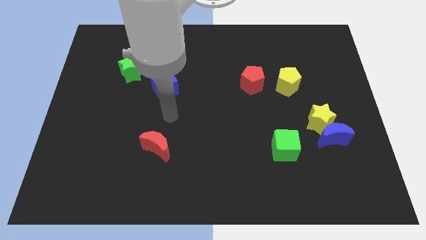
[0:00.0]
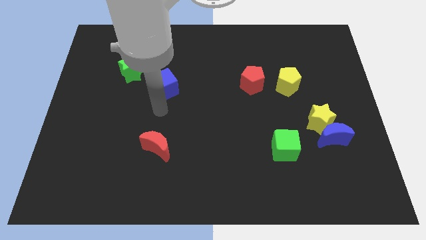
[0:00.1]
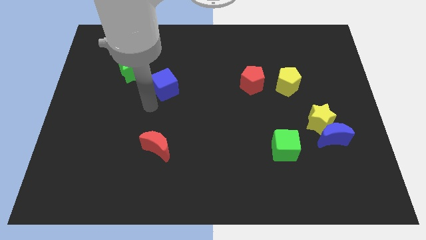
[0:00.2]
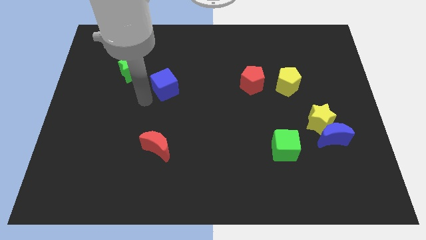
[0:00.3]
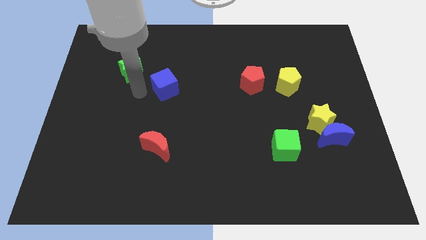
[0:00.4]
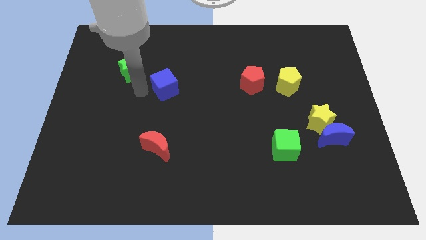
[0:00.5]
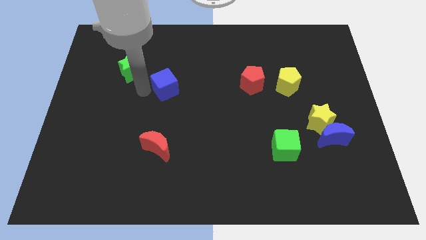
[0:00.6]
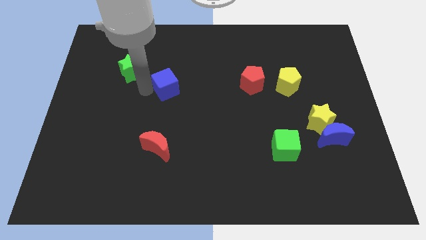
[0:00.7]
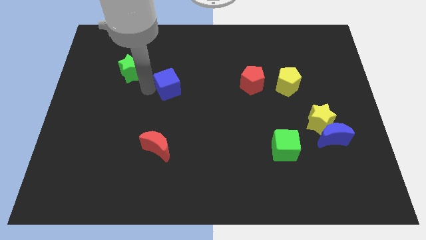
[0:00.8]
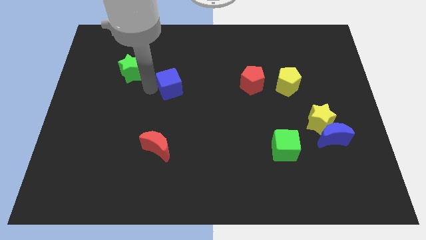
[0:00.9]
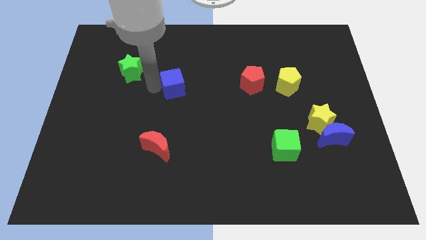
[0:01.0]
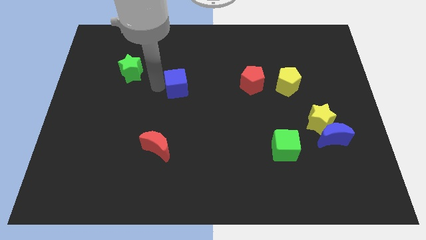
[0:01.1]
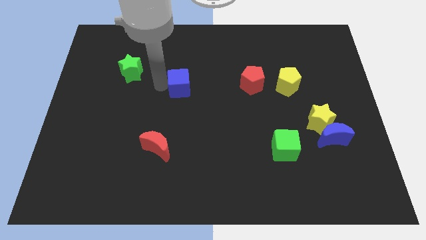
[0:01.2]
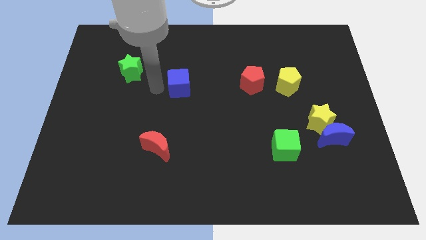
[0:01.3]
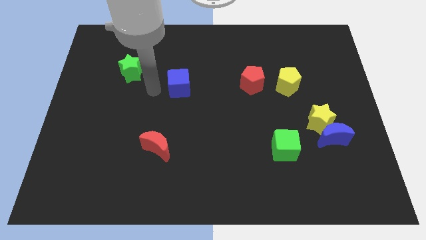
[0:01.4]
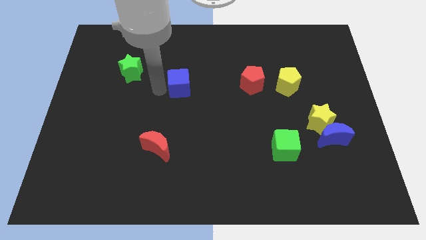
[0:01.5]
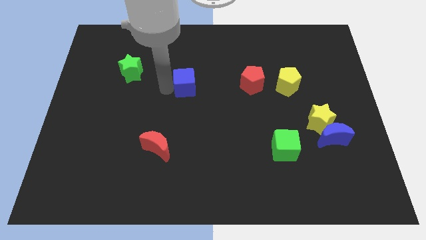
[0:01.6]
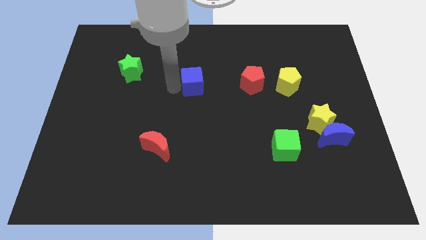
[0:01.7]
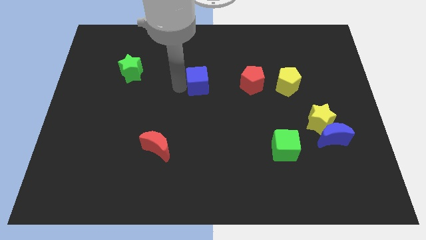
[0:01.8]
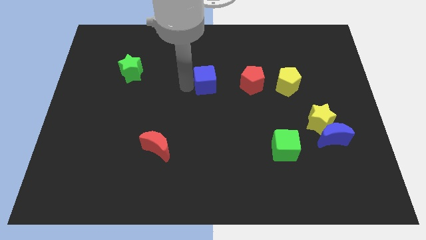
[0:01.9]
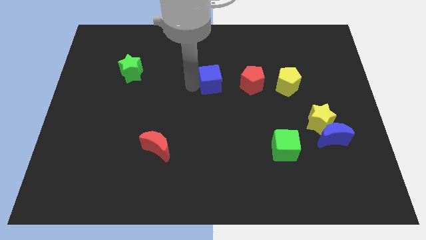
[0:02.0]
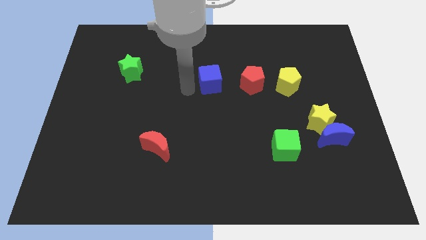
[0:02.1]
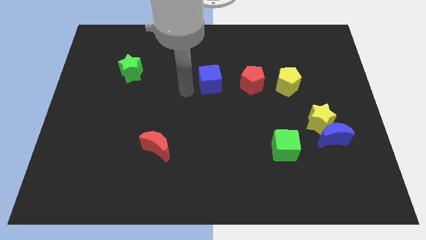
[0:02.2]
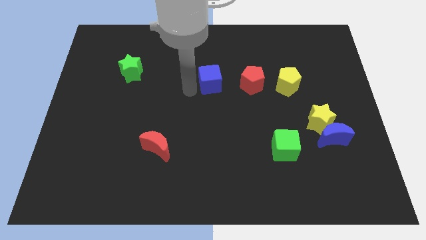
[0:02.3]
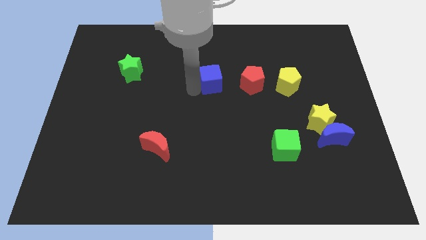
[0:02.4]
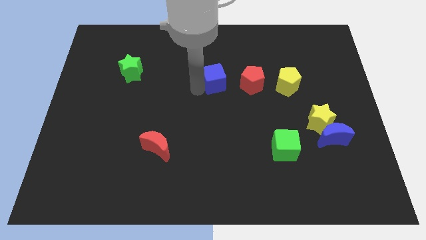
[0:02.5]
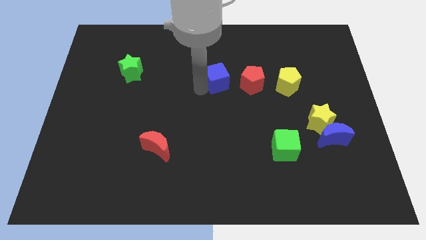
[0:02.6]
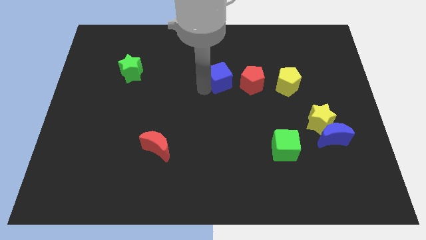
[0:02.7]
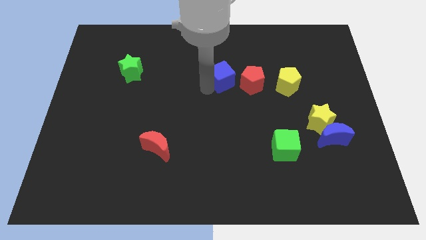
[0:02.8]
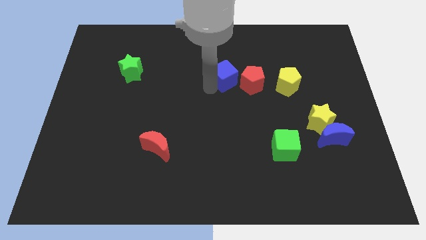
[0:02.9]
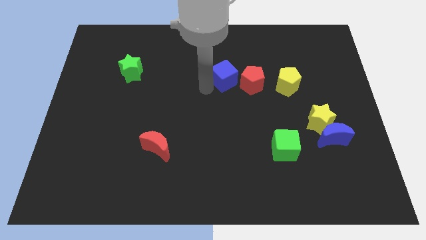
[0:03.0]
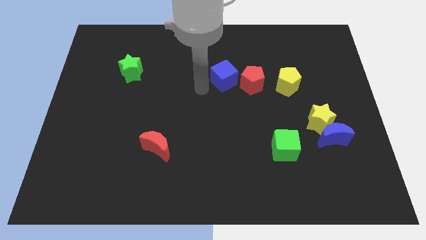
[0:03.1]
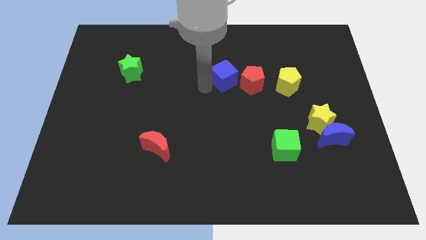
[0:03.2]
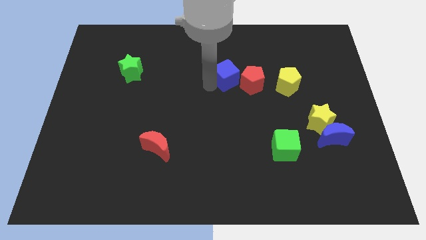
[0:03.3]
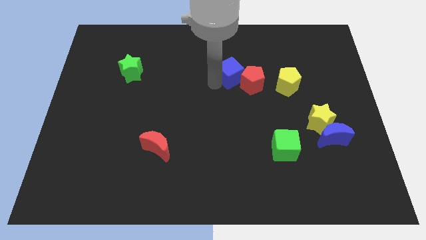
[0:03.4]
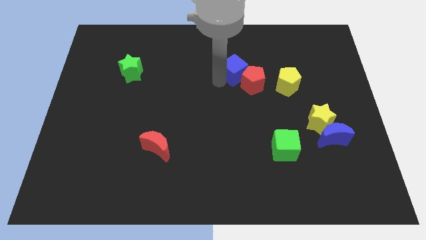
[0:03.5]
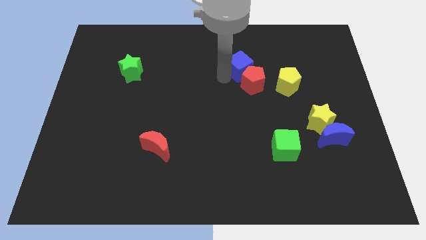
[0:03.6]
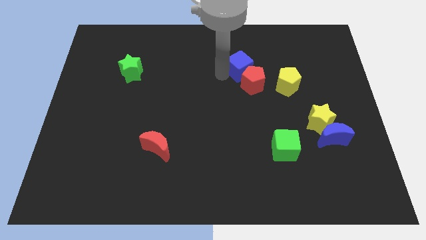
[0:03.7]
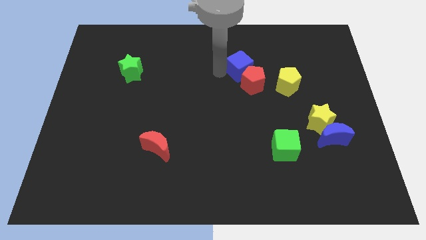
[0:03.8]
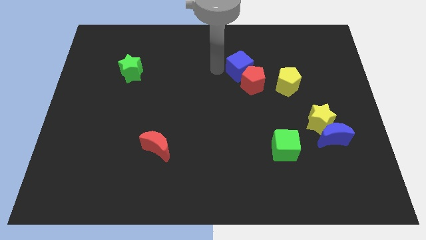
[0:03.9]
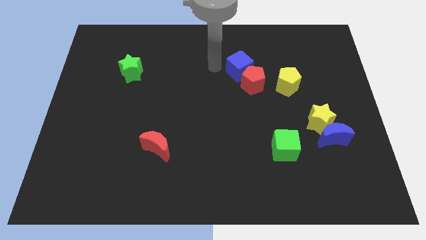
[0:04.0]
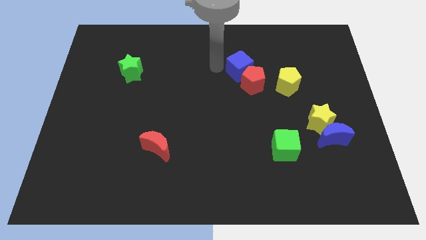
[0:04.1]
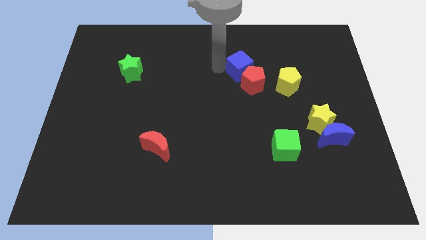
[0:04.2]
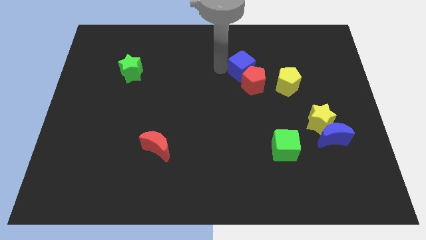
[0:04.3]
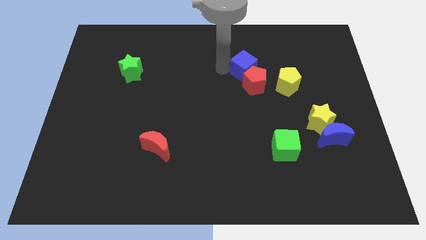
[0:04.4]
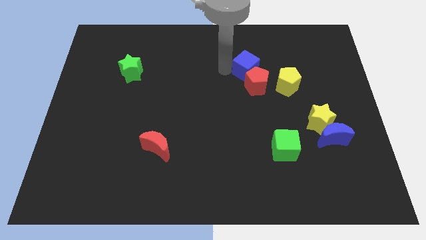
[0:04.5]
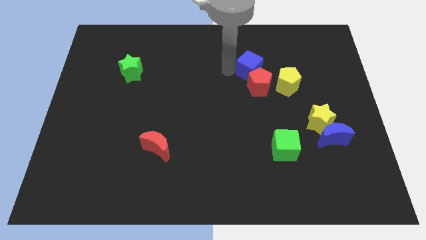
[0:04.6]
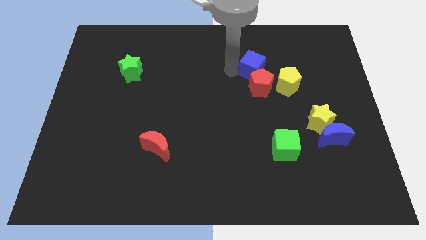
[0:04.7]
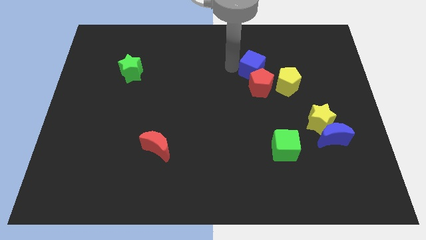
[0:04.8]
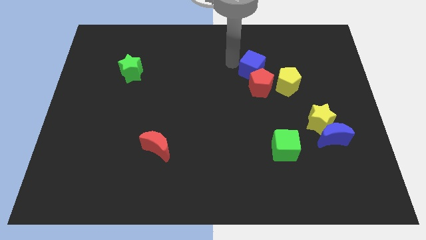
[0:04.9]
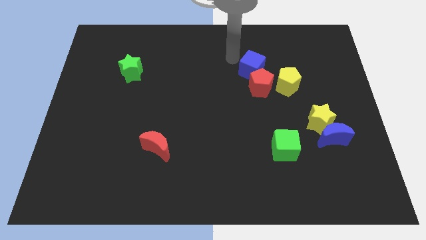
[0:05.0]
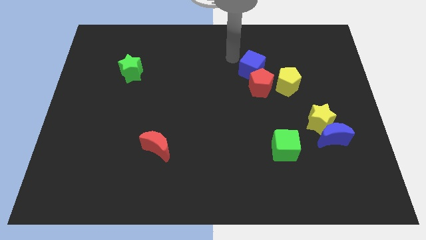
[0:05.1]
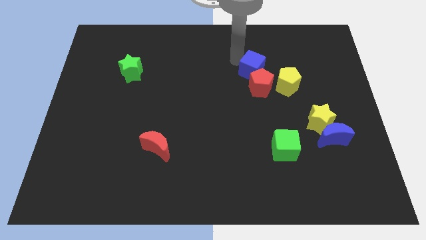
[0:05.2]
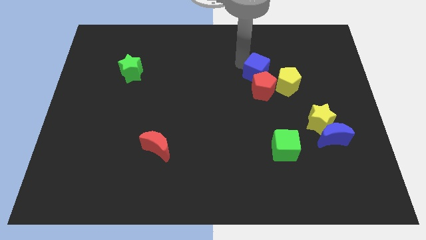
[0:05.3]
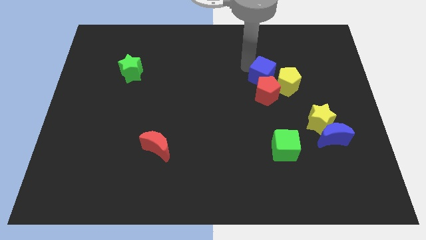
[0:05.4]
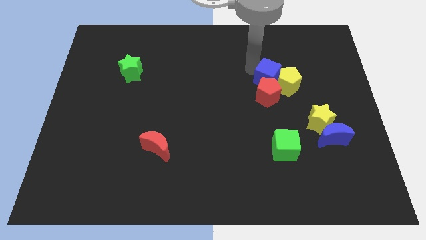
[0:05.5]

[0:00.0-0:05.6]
move the blue cube towards the yellow pentagon

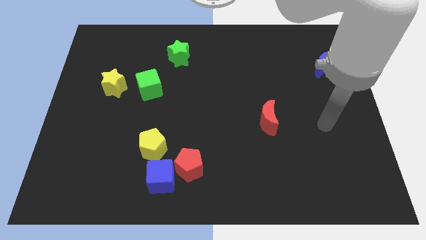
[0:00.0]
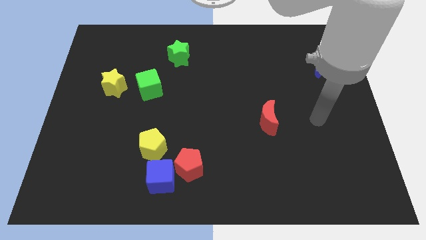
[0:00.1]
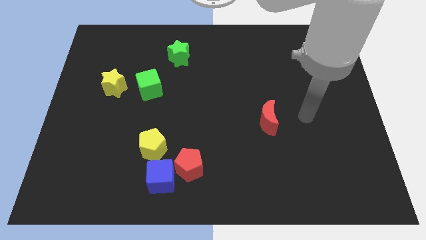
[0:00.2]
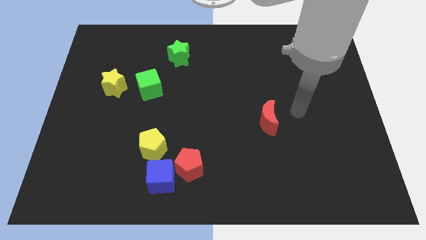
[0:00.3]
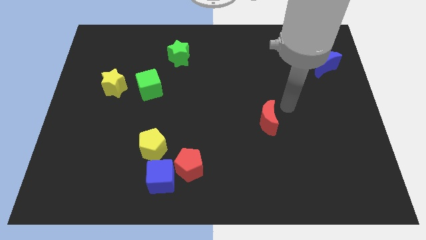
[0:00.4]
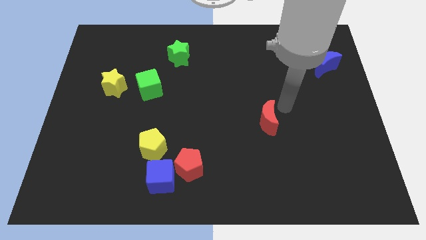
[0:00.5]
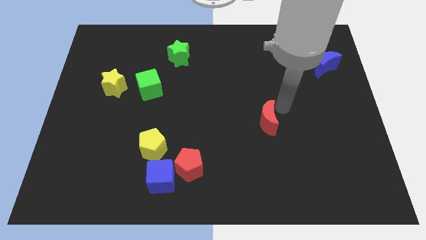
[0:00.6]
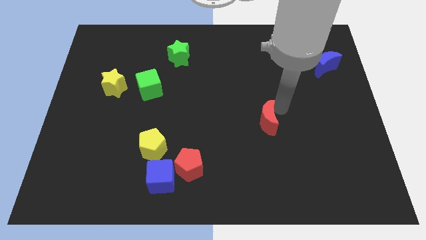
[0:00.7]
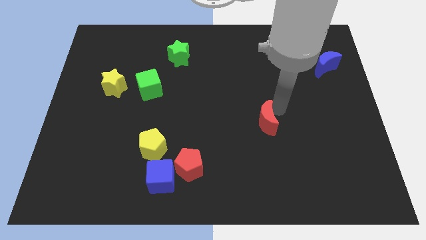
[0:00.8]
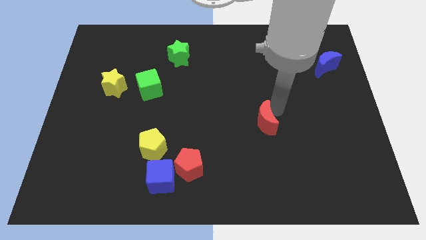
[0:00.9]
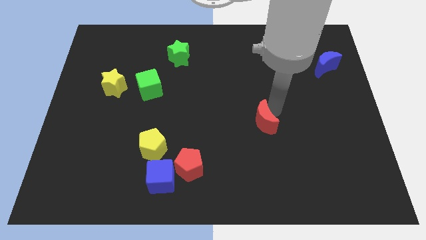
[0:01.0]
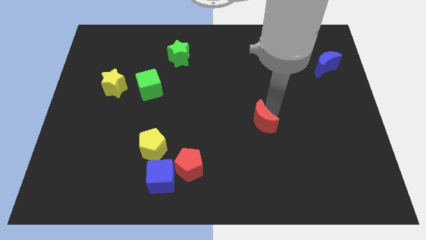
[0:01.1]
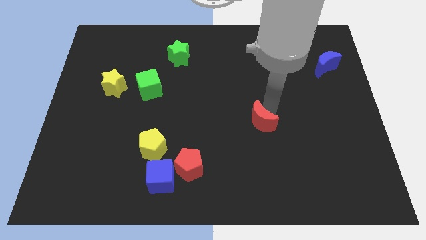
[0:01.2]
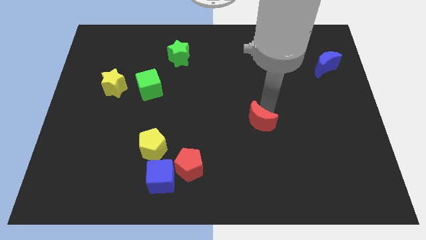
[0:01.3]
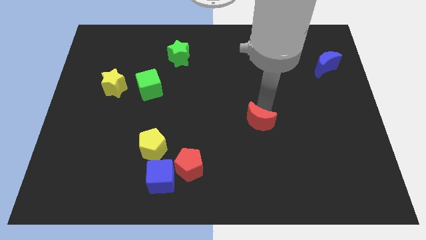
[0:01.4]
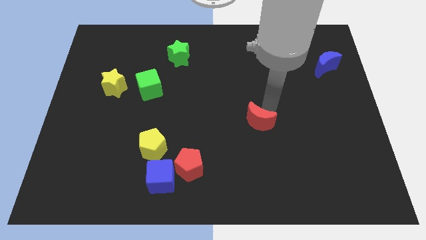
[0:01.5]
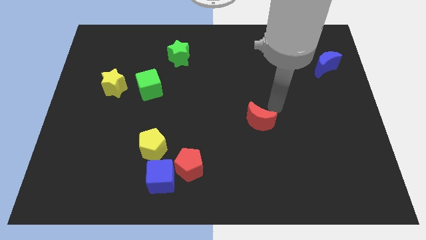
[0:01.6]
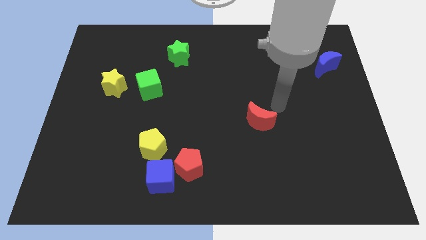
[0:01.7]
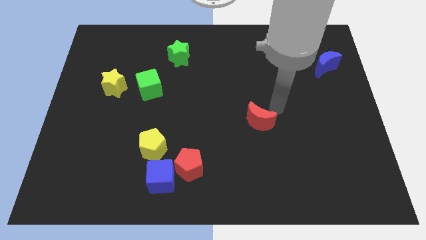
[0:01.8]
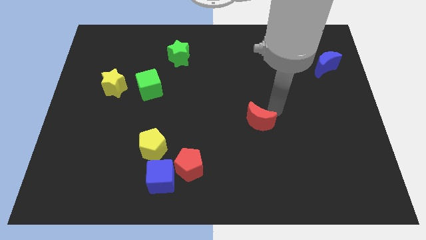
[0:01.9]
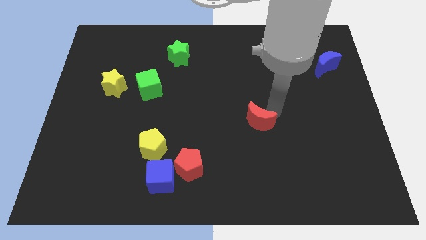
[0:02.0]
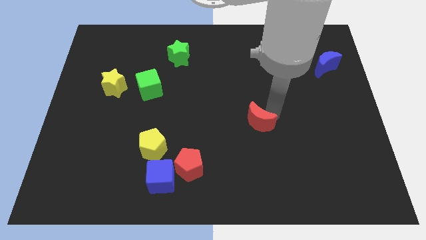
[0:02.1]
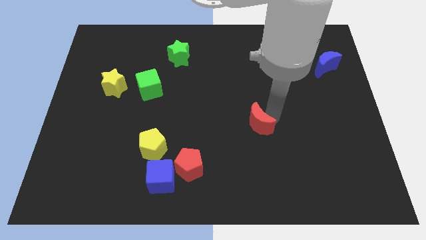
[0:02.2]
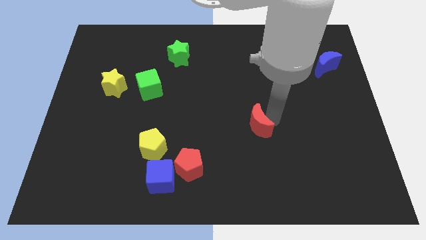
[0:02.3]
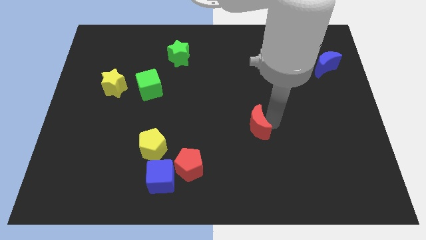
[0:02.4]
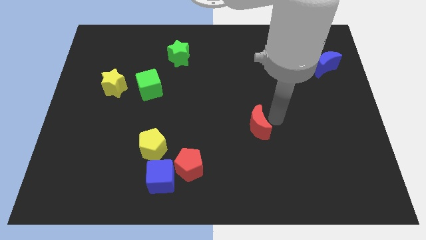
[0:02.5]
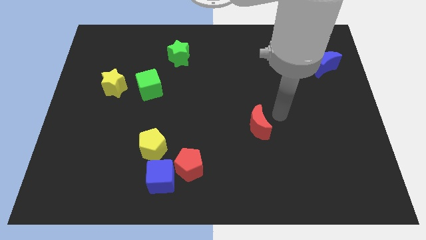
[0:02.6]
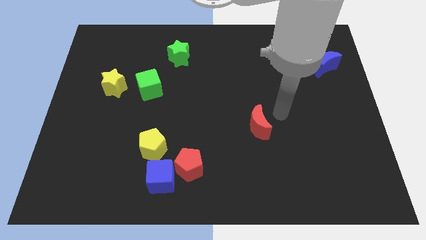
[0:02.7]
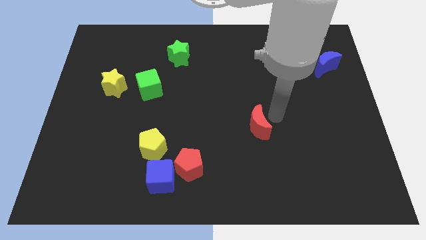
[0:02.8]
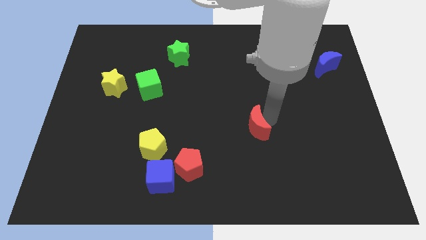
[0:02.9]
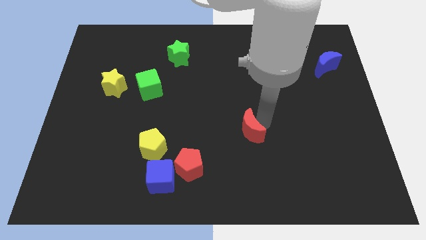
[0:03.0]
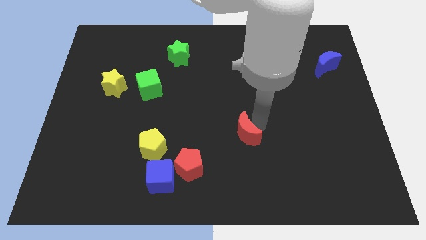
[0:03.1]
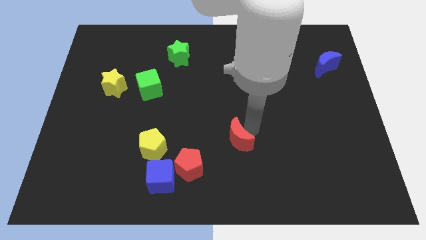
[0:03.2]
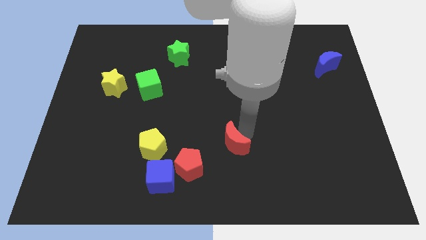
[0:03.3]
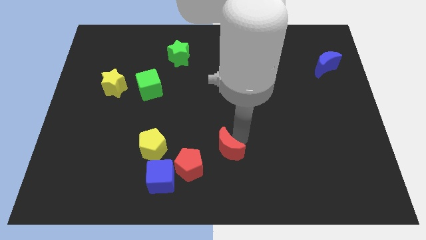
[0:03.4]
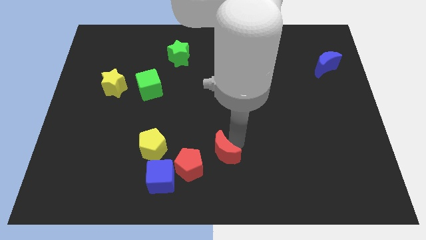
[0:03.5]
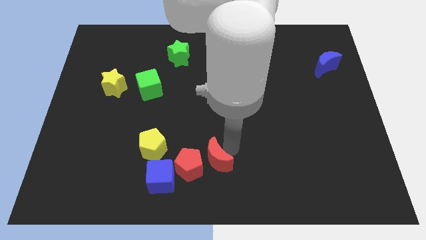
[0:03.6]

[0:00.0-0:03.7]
put the red moon next to the red pentagon
